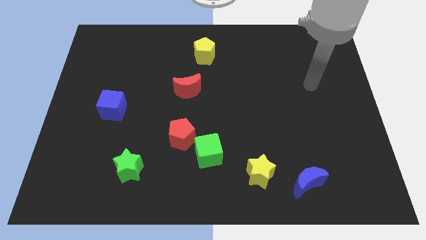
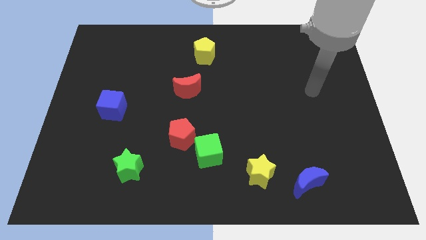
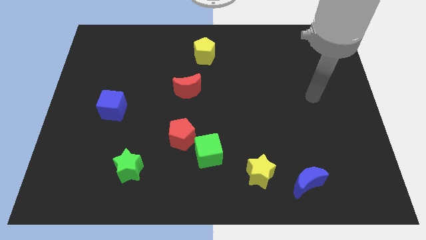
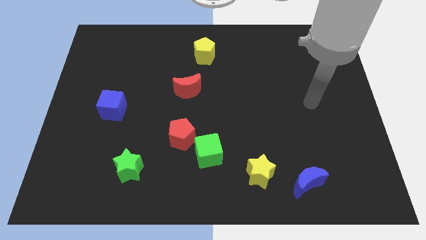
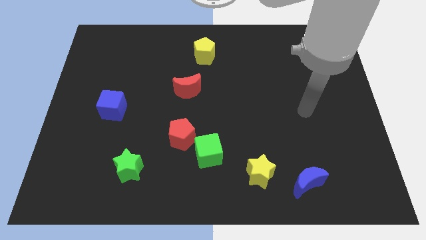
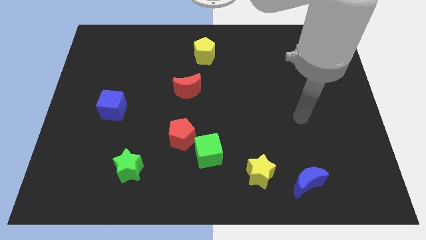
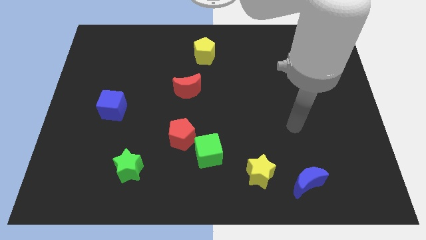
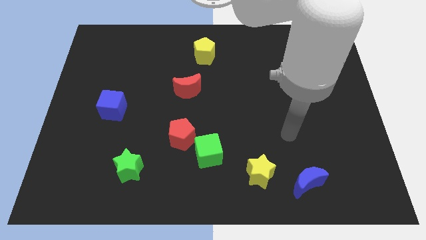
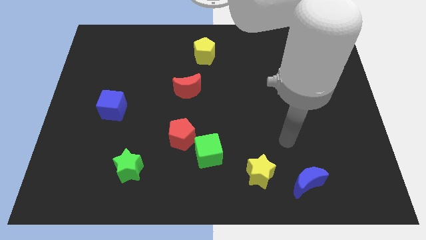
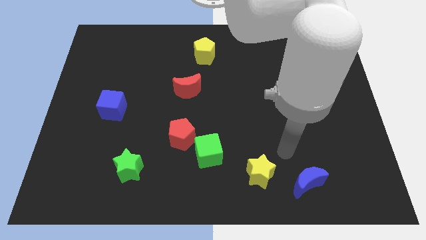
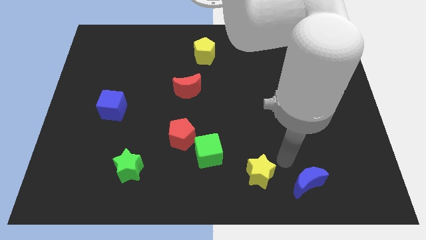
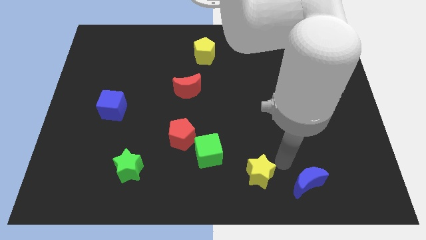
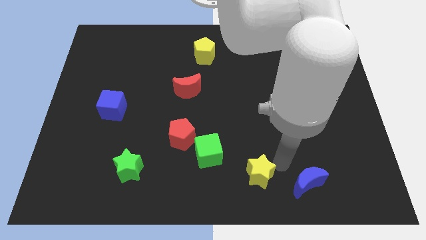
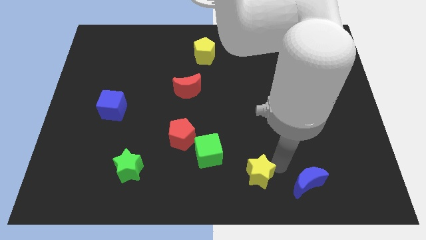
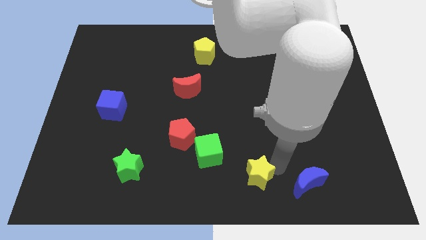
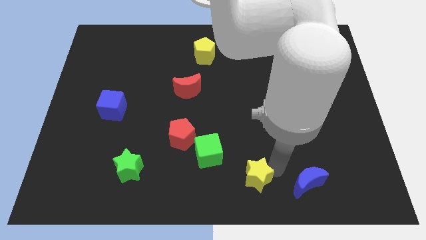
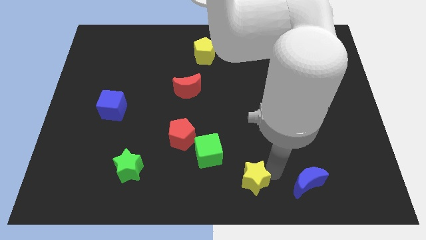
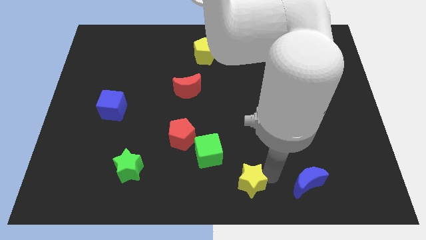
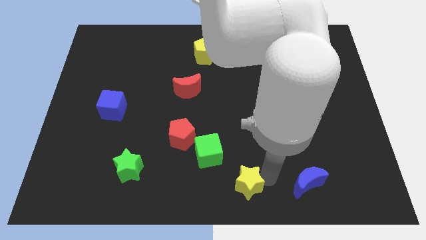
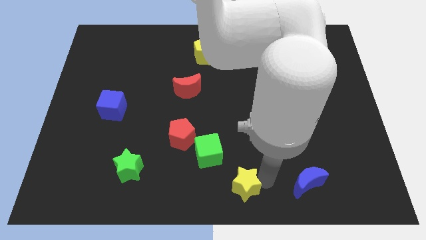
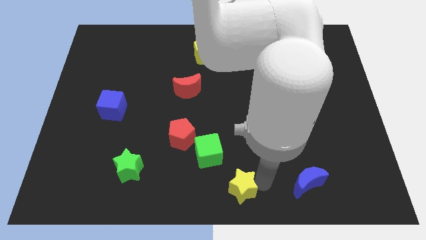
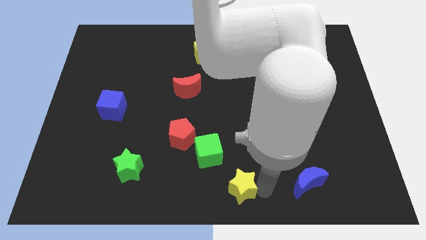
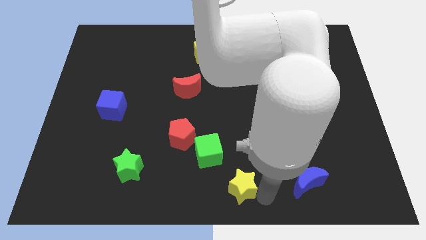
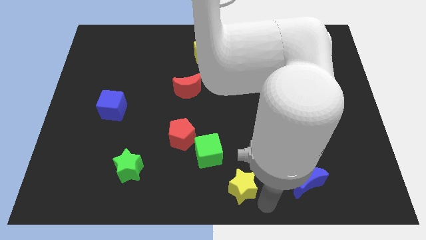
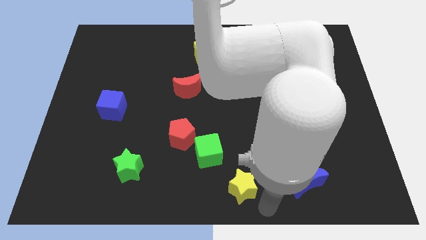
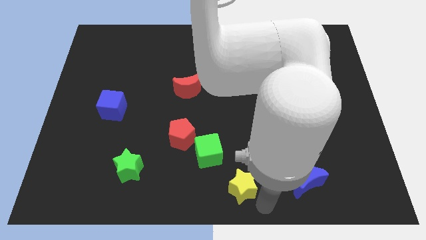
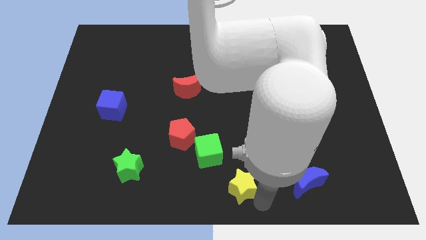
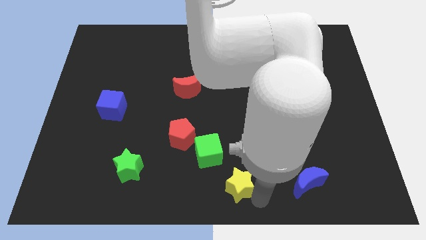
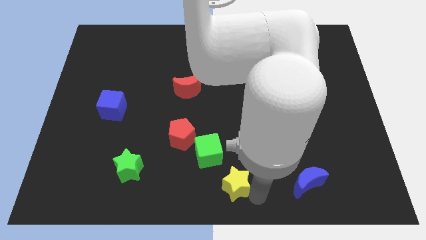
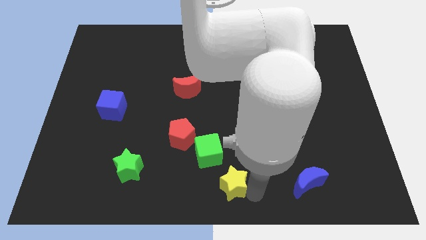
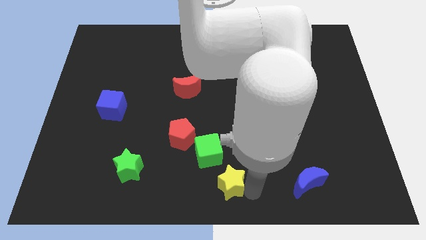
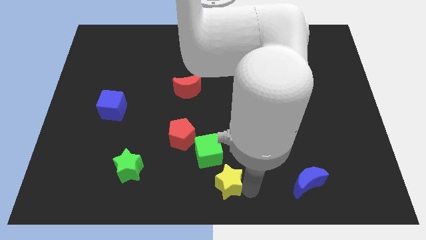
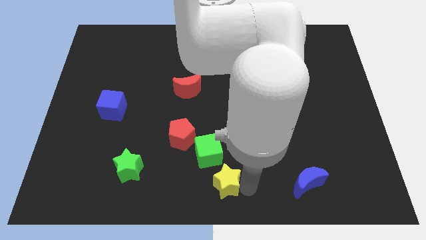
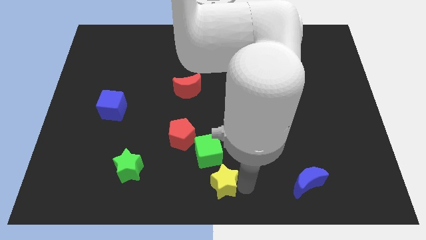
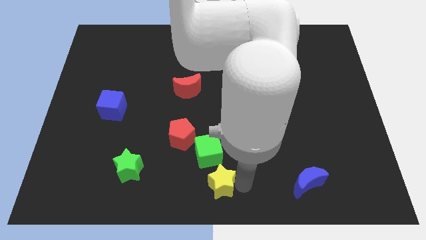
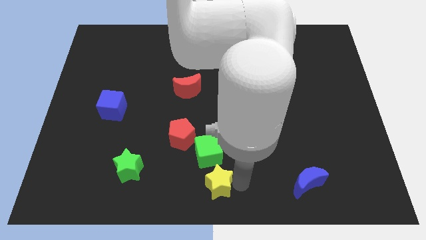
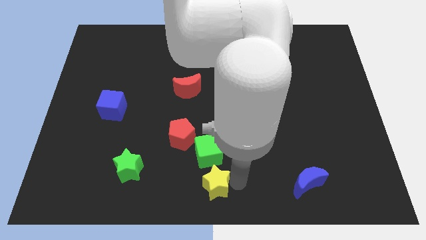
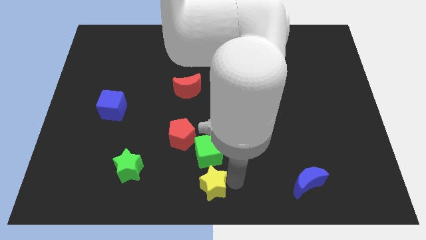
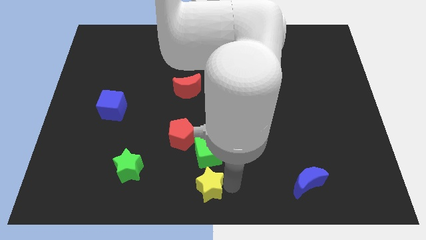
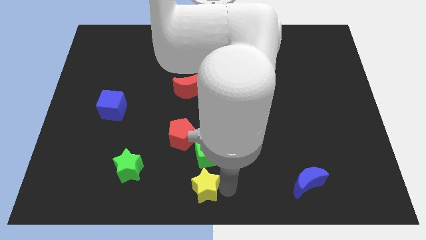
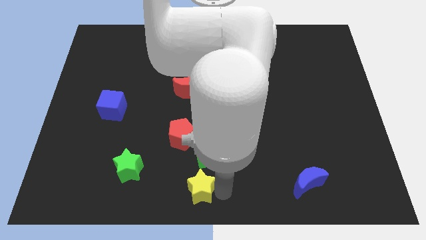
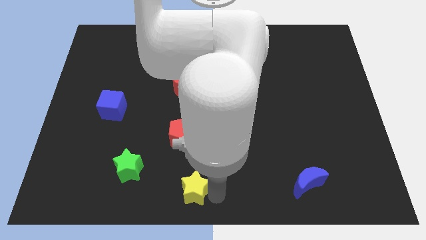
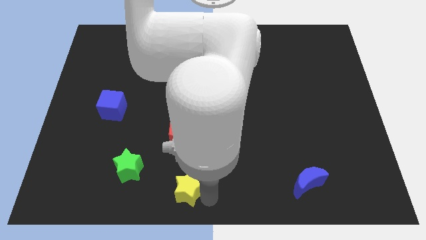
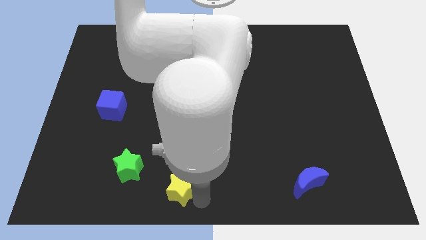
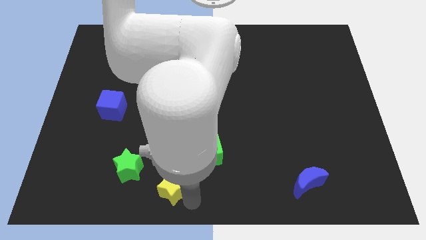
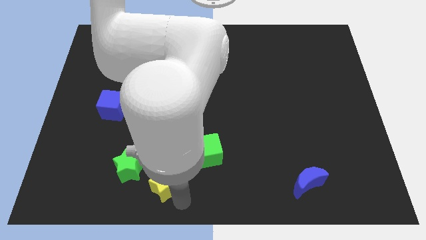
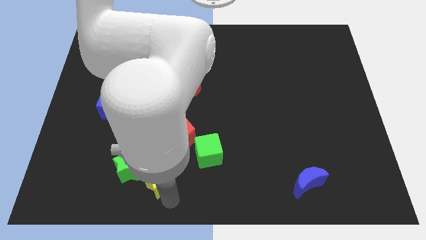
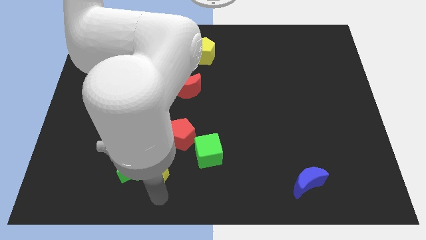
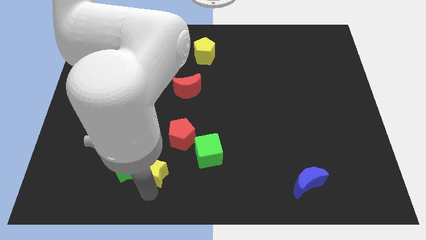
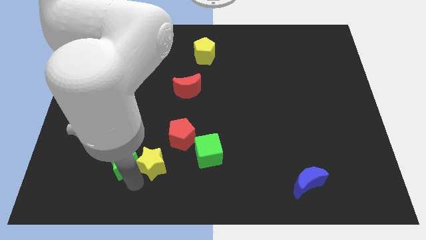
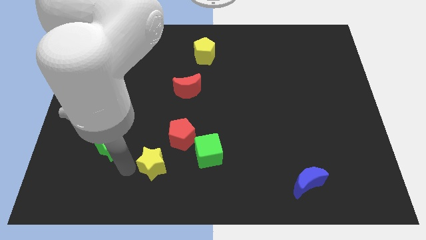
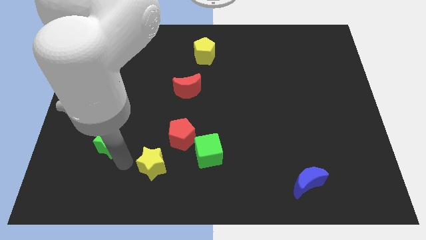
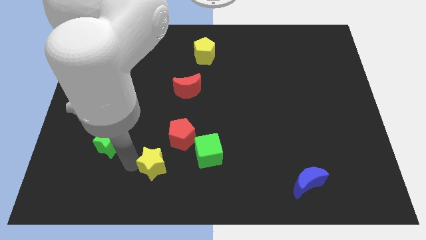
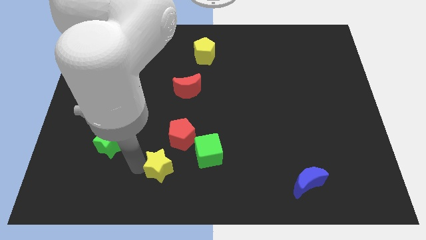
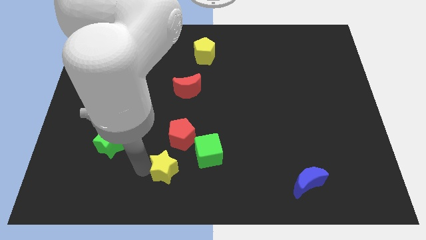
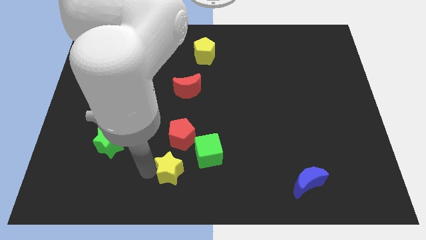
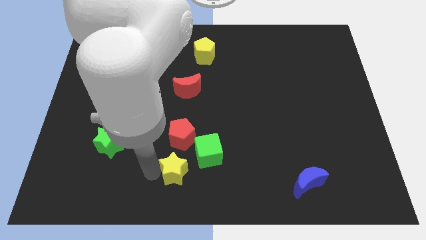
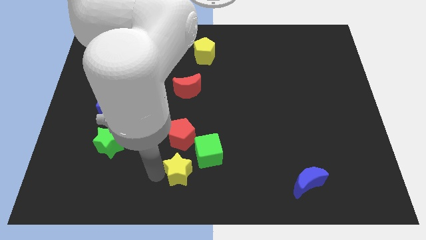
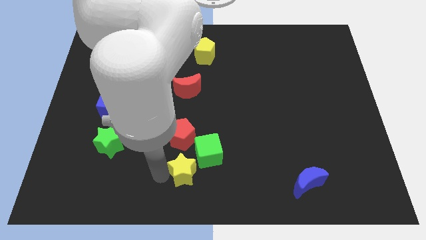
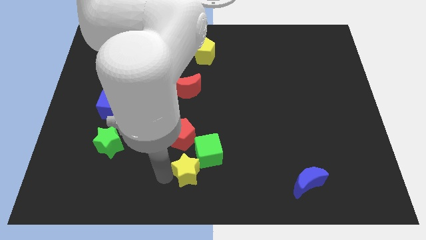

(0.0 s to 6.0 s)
put the yellow star diagonally down and to the right of the red pentagon

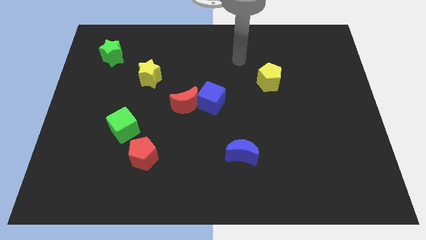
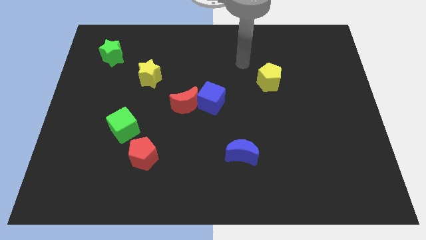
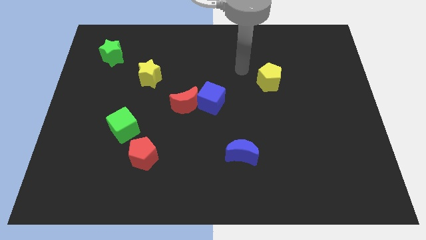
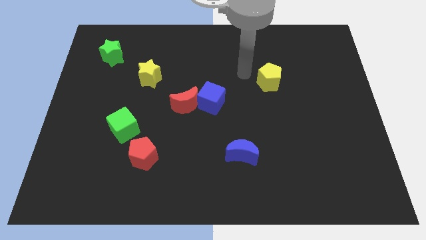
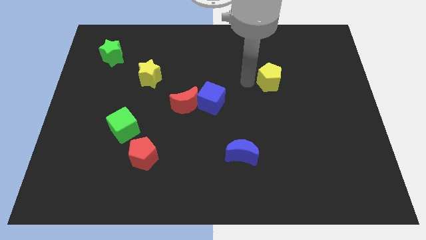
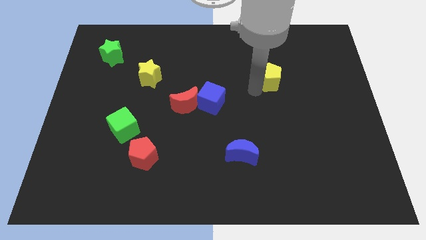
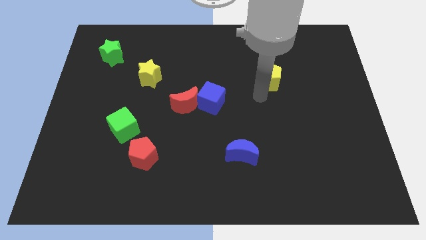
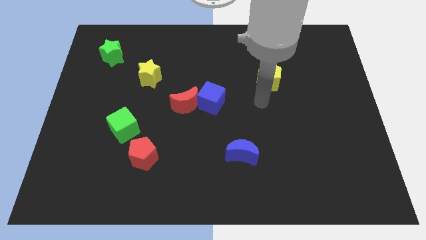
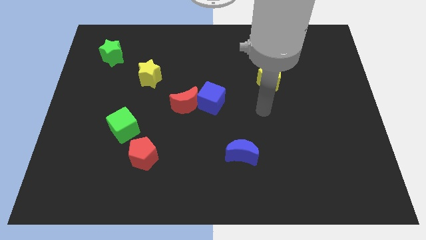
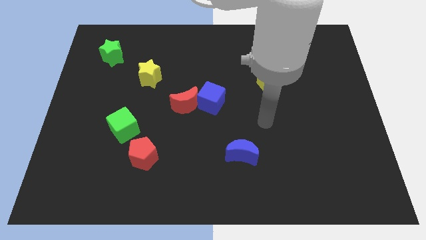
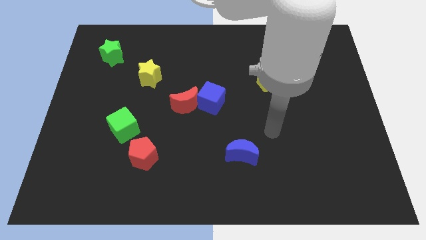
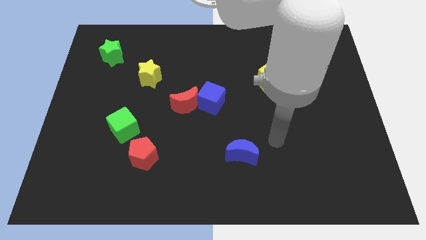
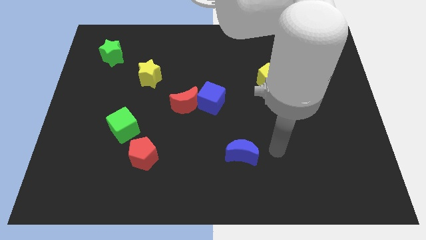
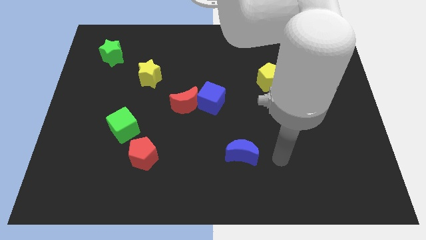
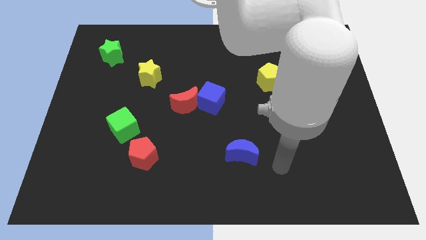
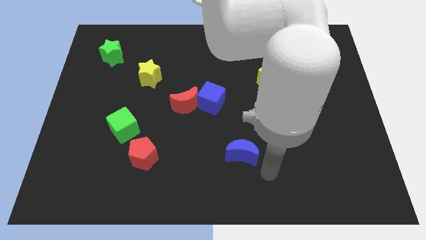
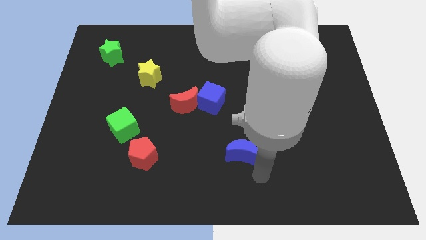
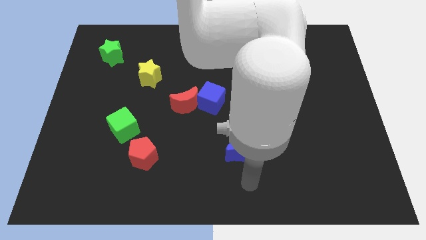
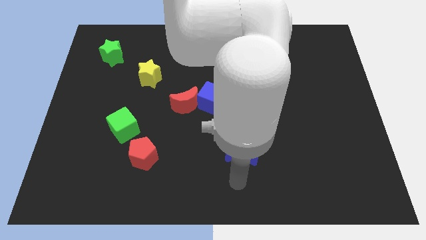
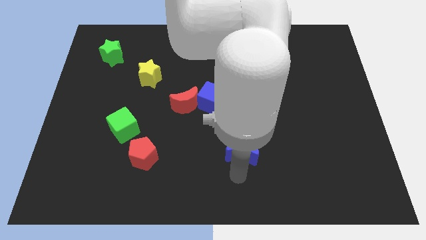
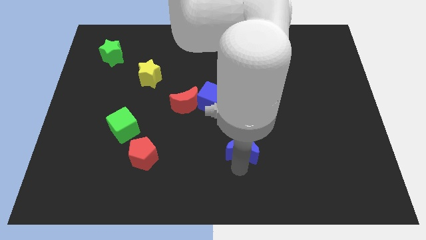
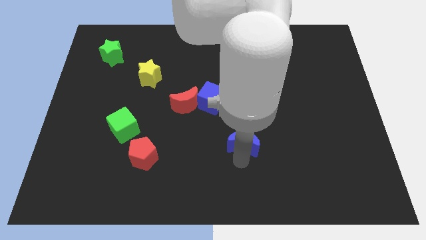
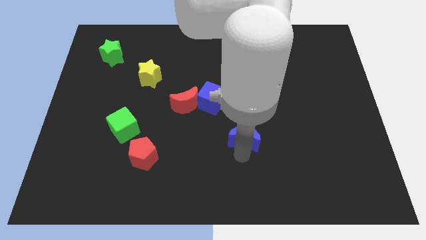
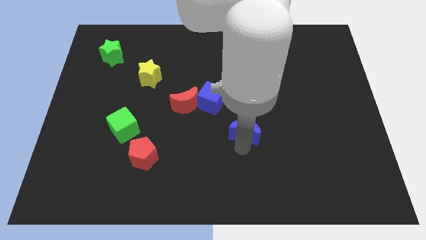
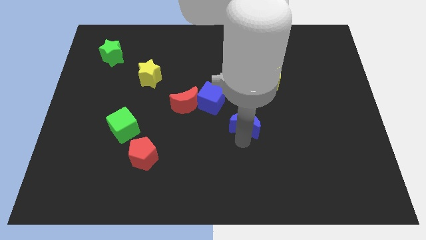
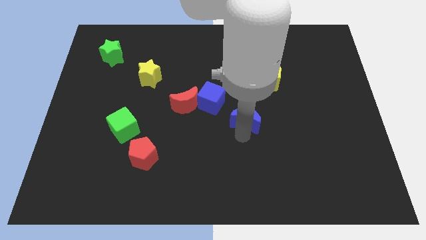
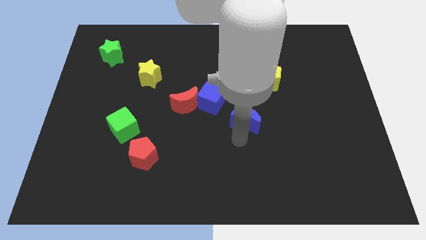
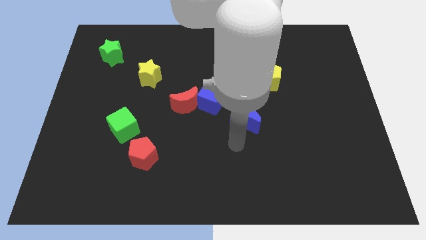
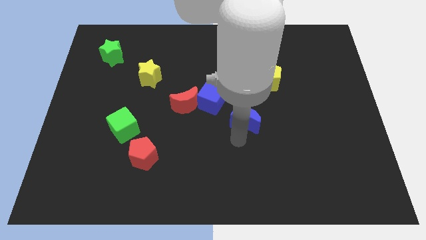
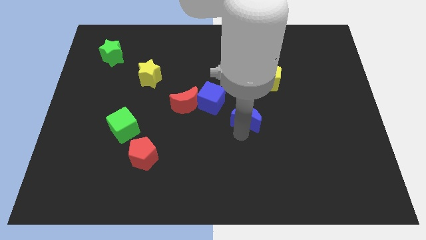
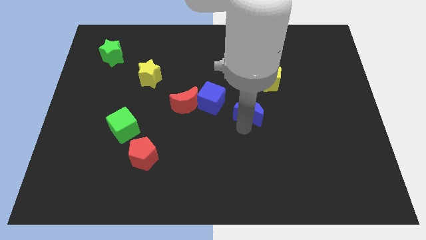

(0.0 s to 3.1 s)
slide the blue moon to the right of the blue cube
